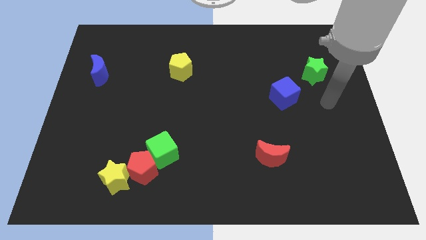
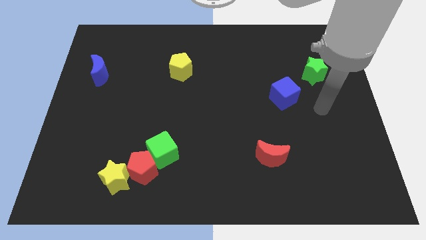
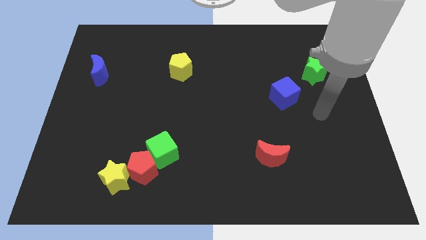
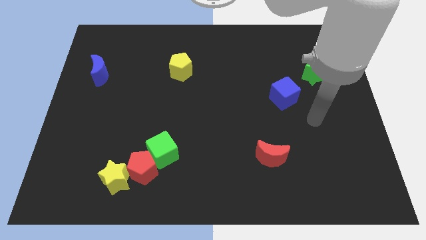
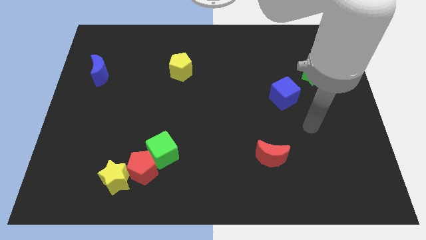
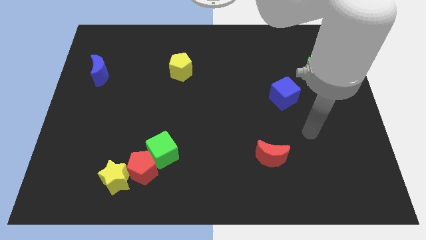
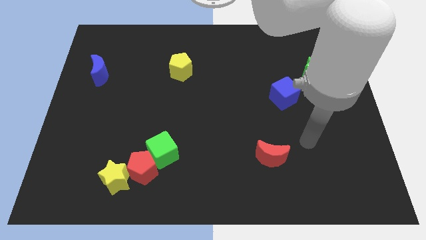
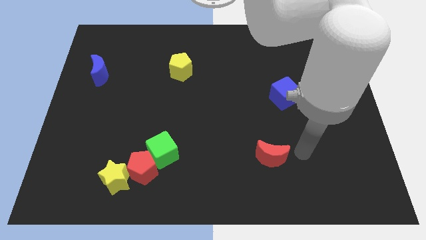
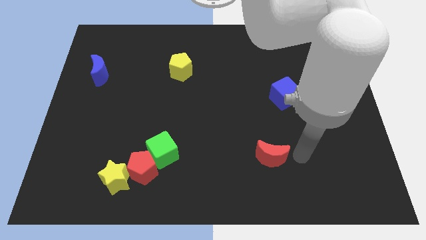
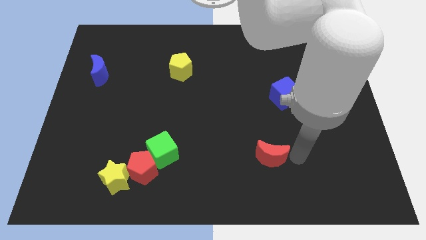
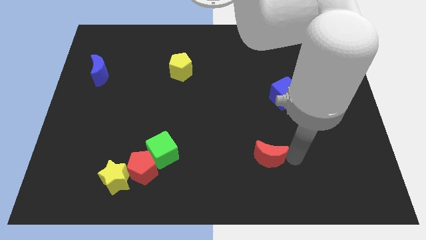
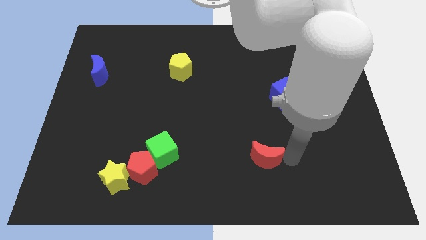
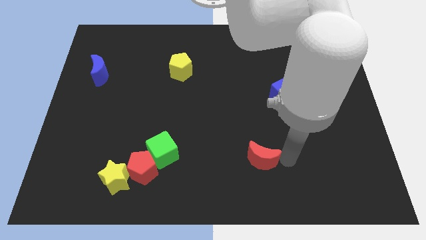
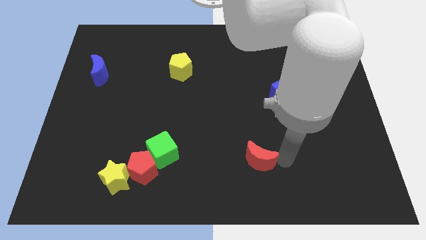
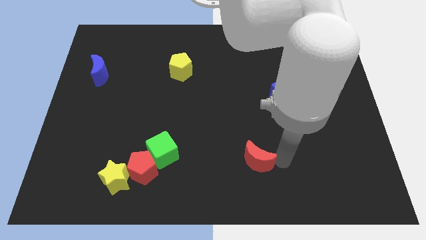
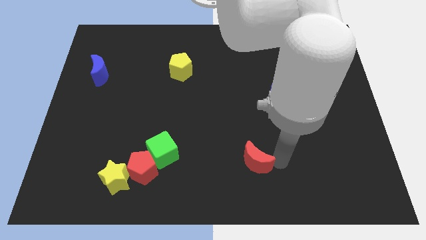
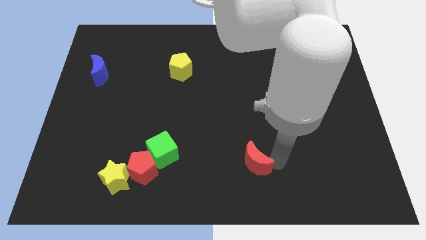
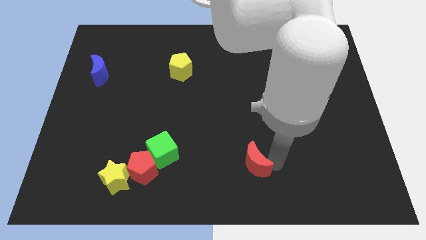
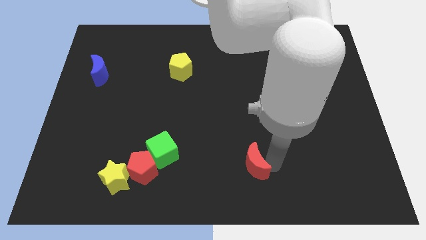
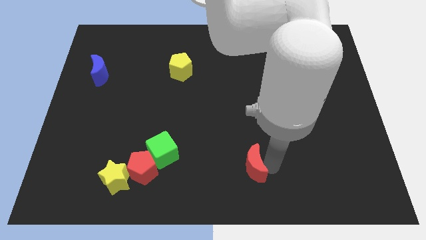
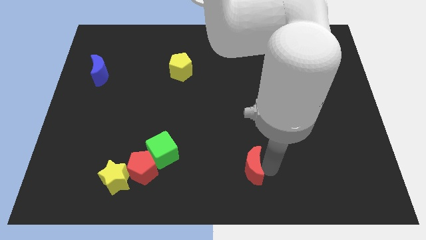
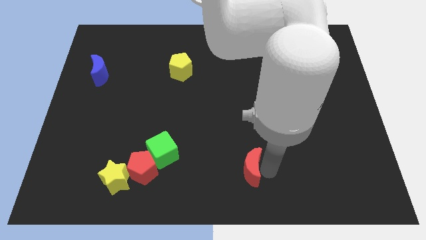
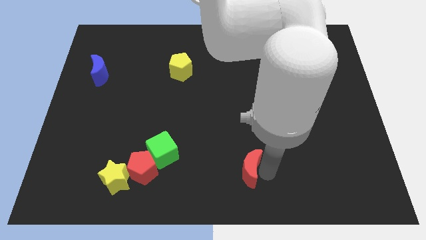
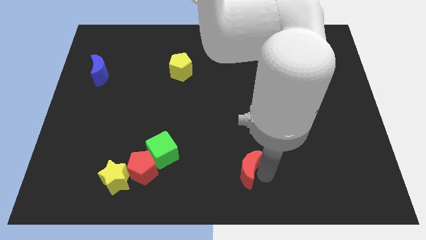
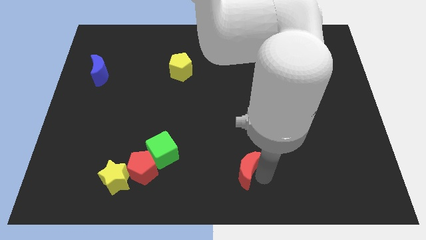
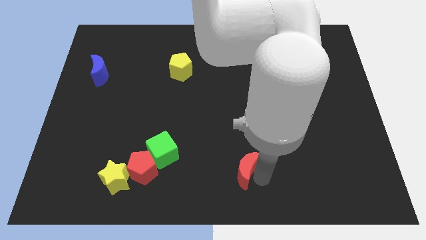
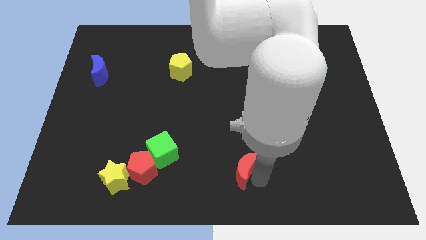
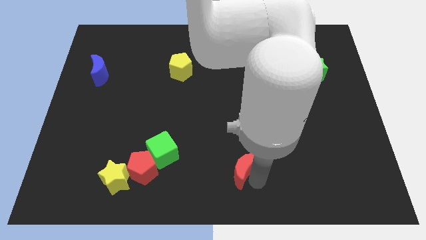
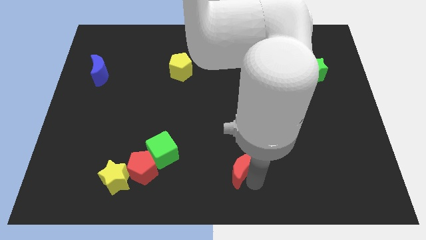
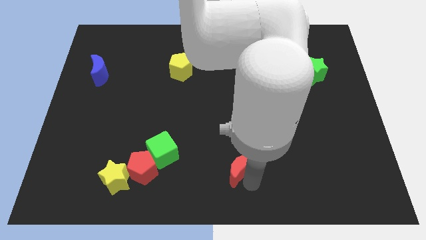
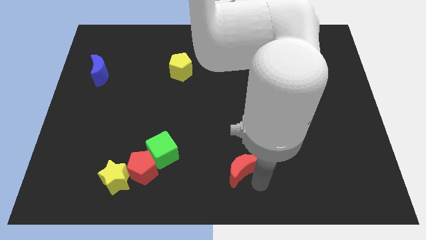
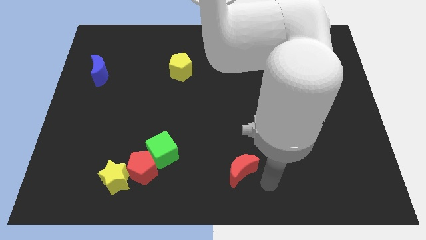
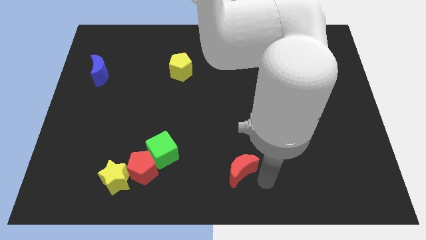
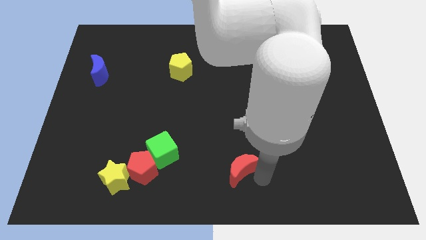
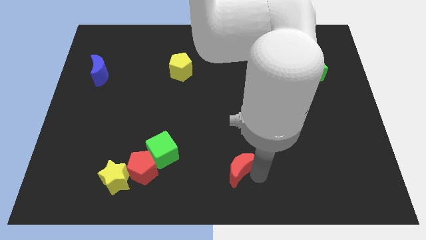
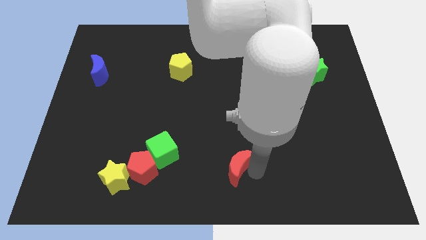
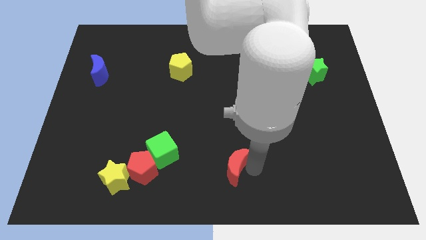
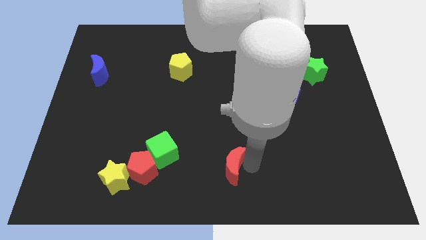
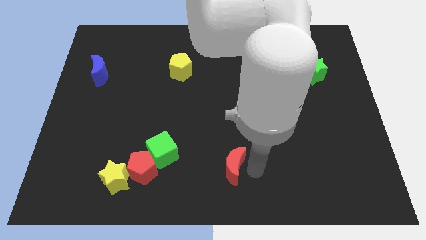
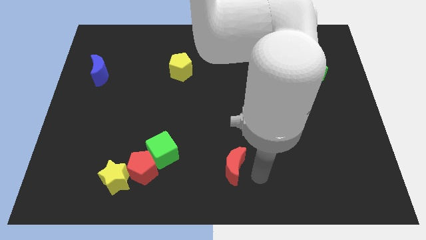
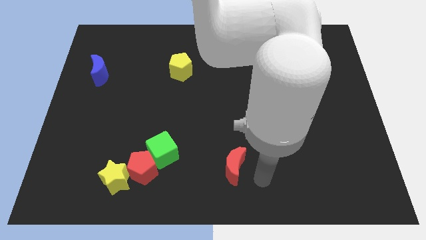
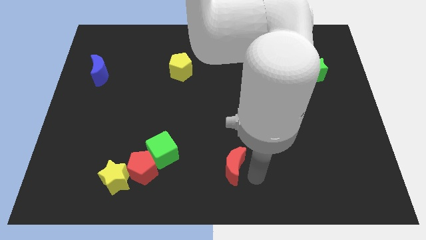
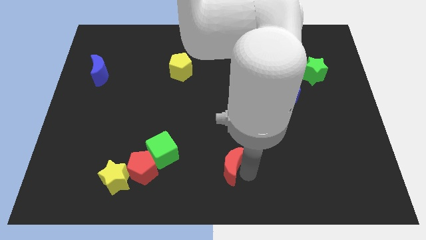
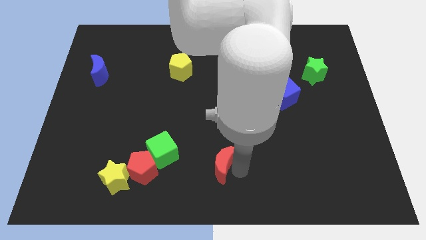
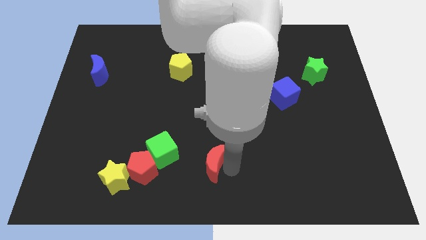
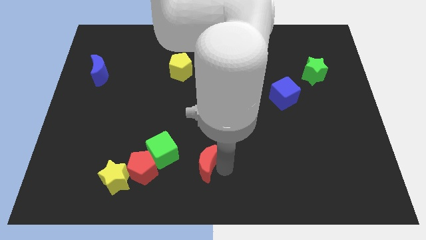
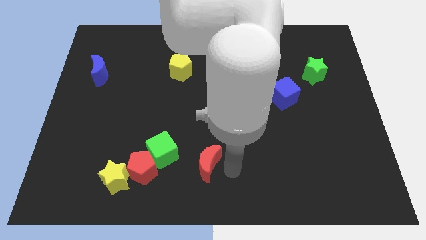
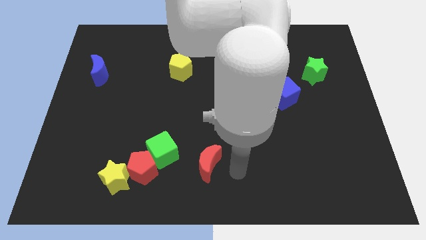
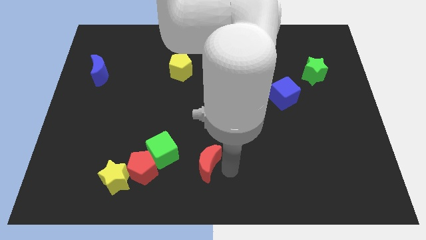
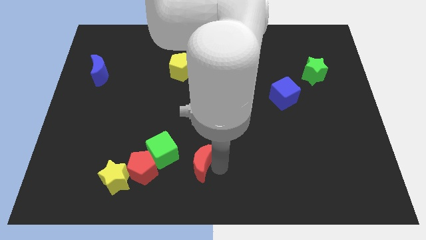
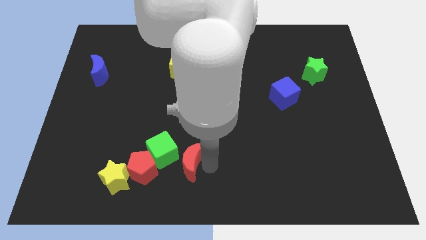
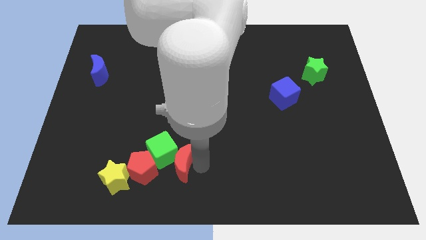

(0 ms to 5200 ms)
move the red moon to the green cube

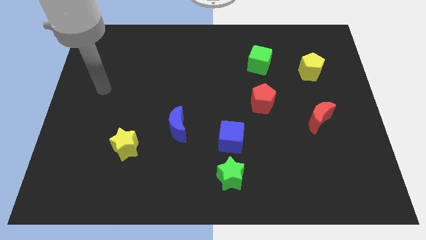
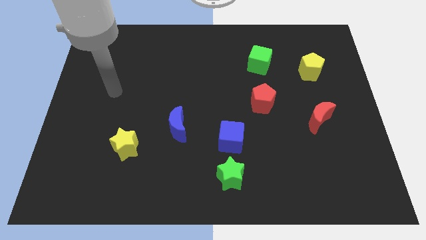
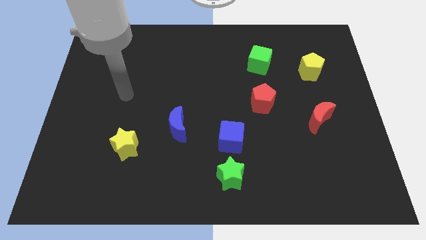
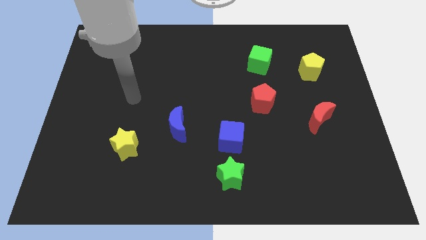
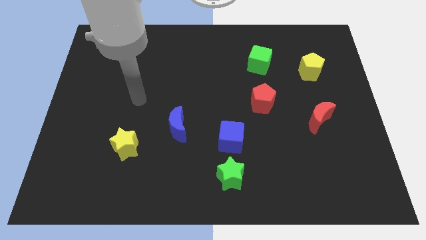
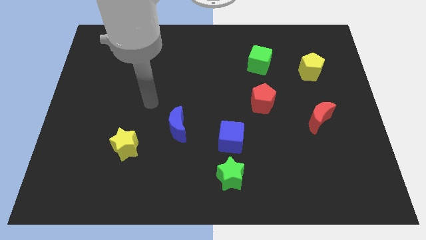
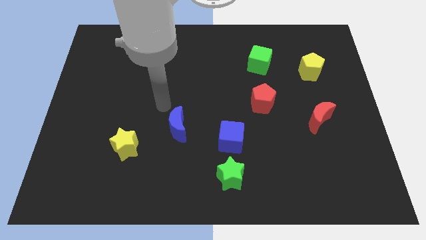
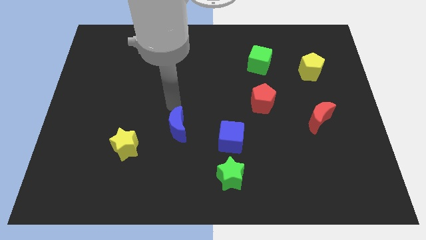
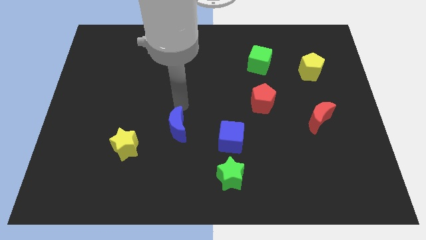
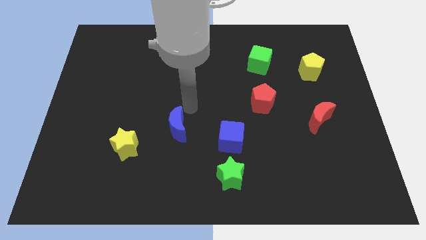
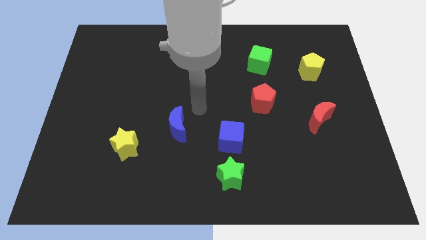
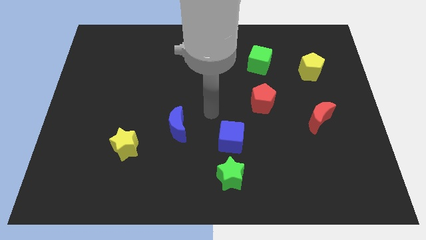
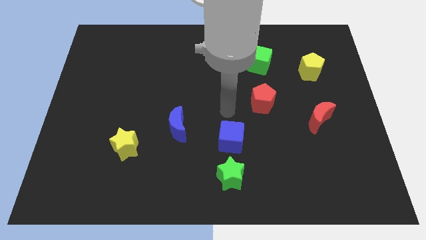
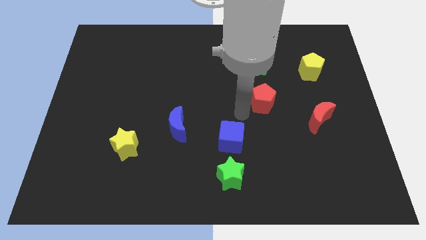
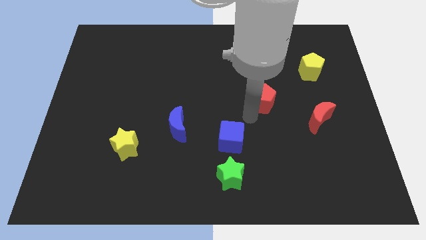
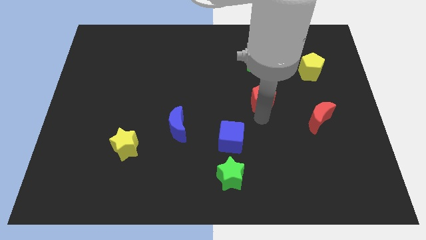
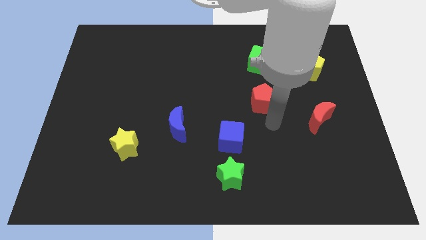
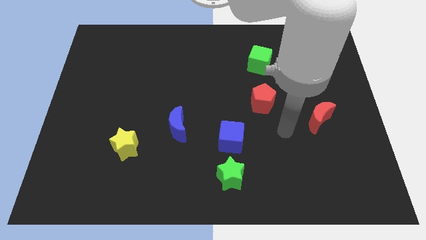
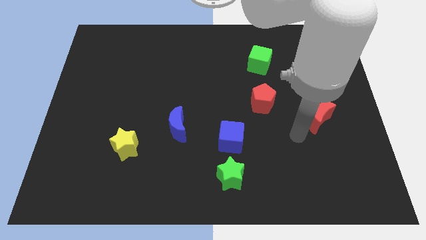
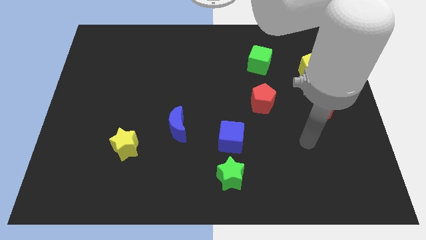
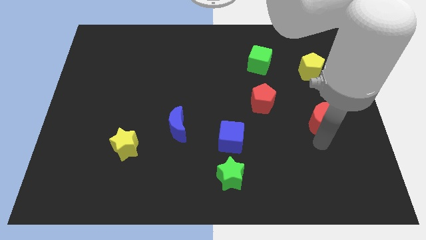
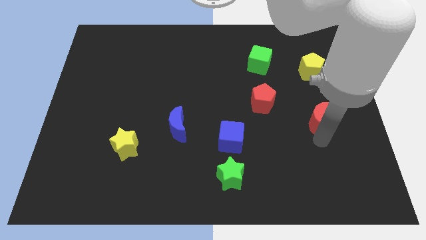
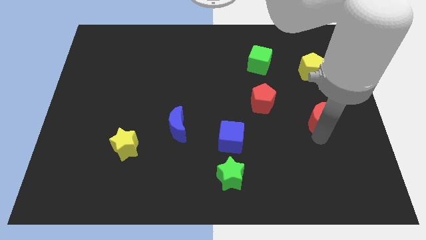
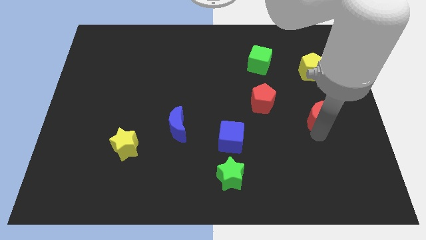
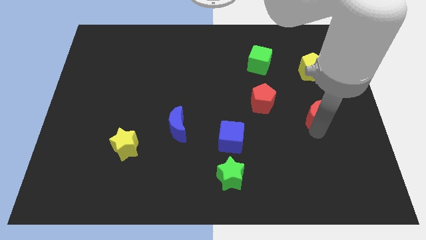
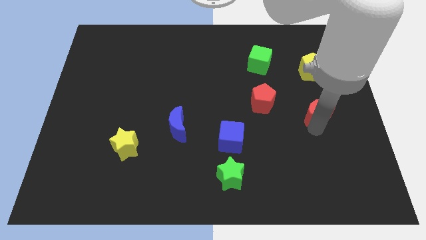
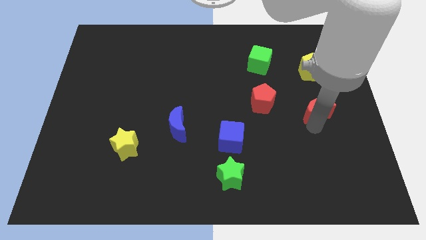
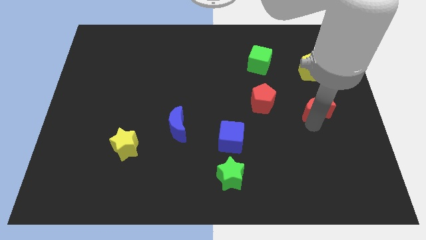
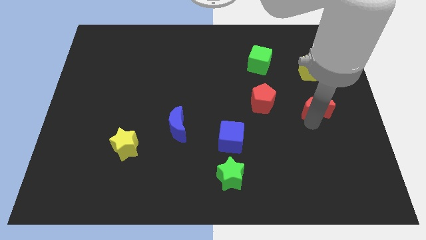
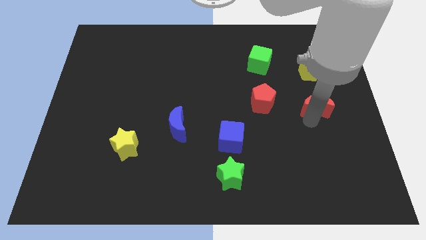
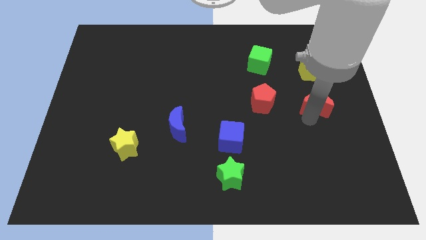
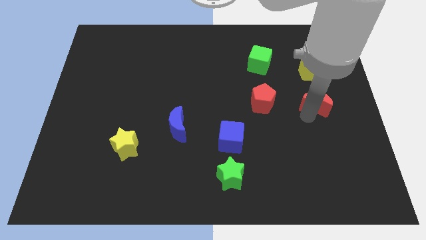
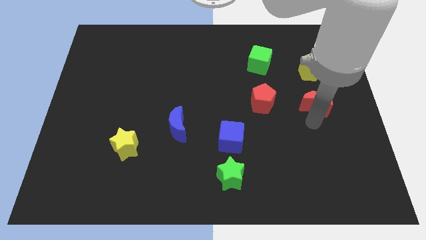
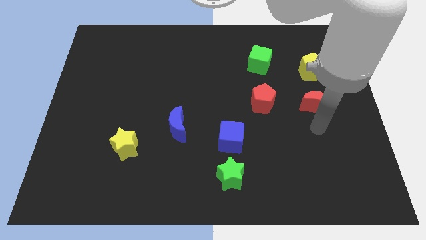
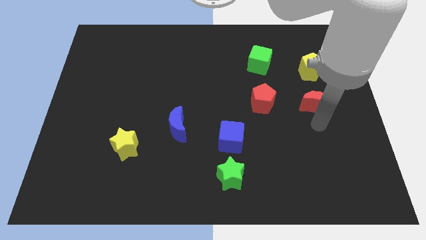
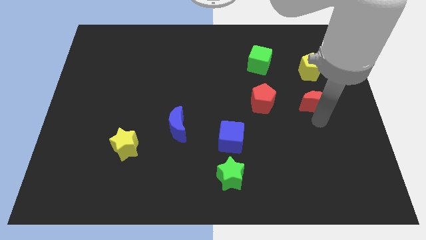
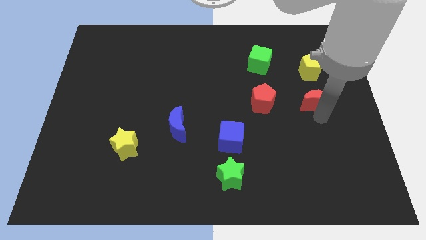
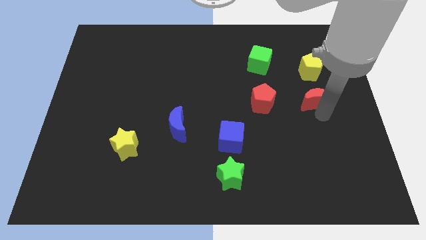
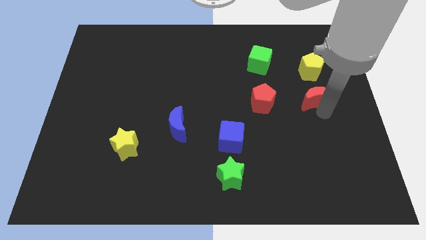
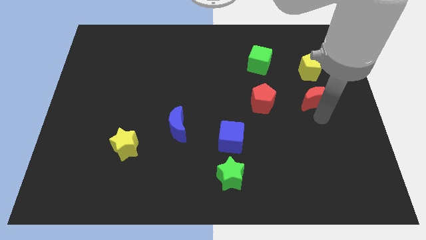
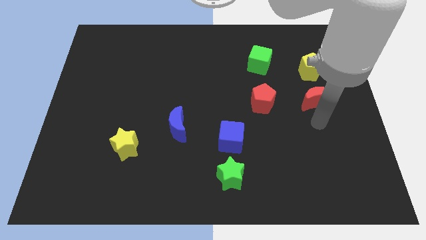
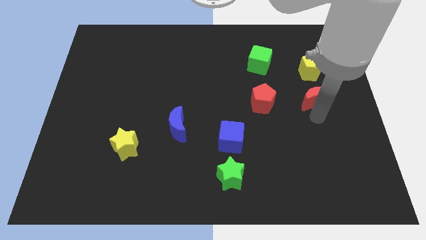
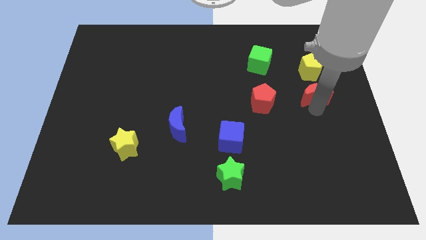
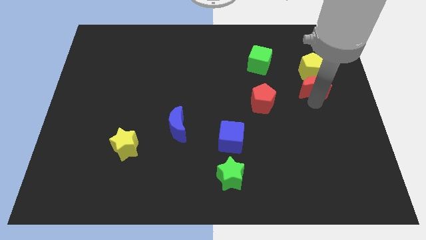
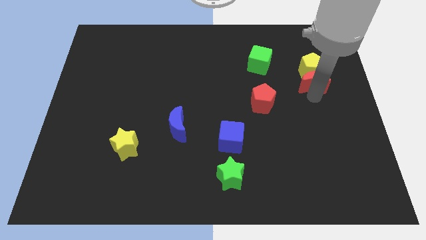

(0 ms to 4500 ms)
push the red moon towards the yellow pentagon
